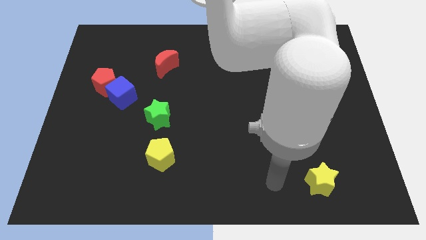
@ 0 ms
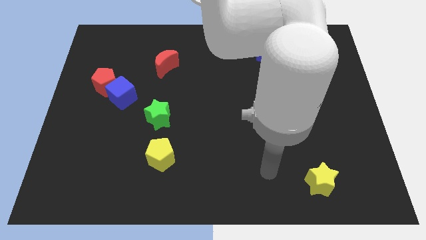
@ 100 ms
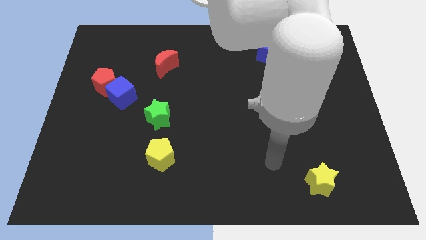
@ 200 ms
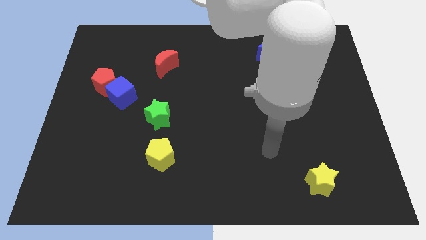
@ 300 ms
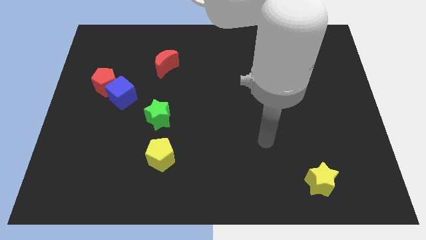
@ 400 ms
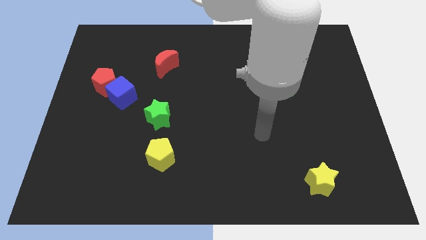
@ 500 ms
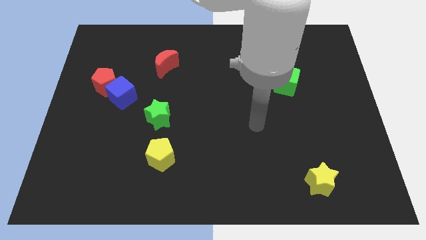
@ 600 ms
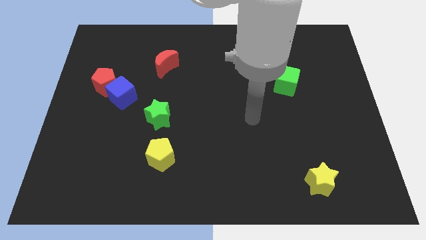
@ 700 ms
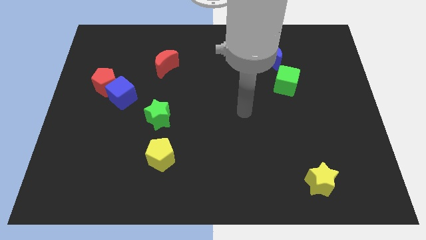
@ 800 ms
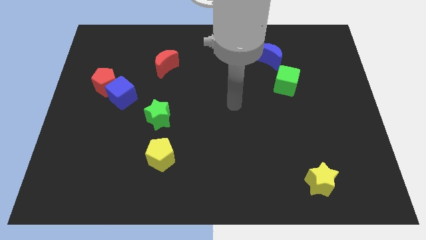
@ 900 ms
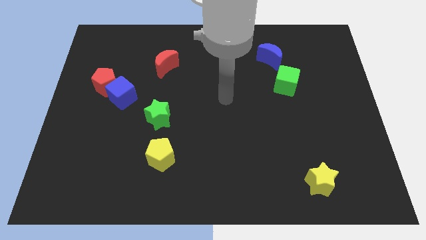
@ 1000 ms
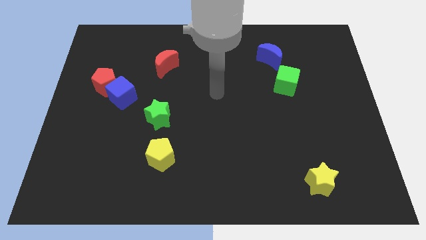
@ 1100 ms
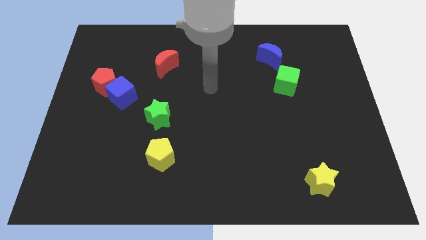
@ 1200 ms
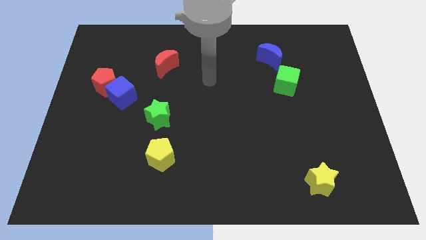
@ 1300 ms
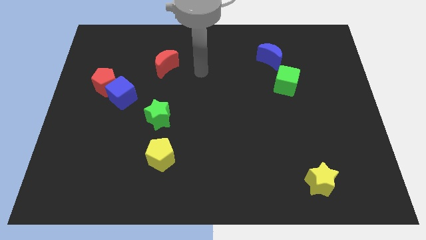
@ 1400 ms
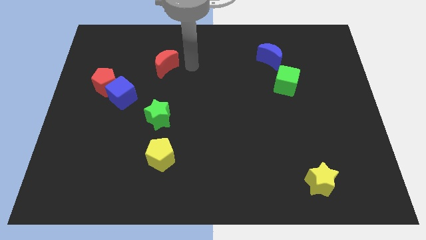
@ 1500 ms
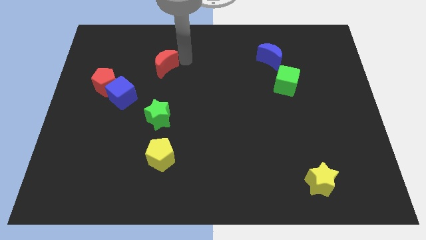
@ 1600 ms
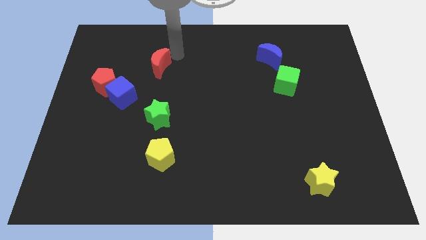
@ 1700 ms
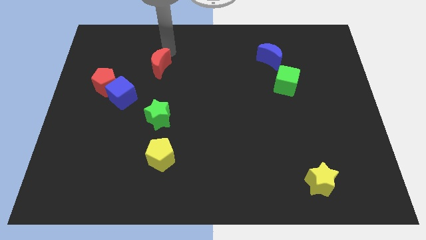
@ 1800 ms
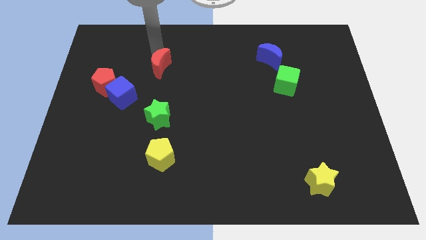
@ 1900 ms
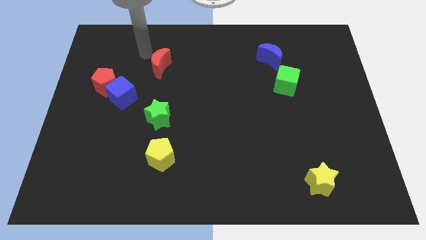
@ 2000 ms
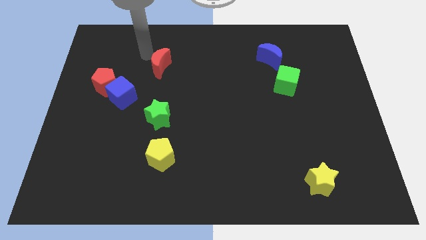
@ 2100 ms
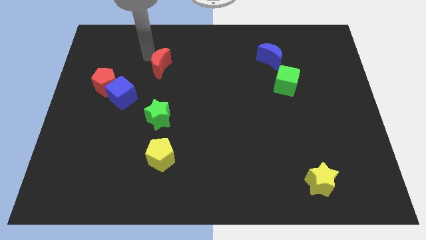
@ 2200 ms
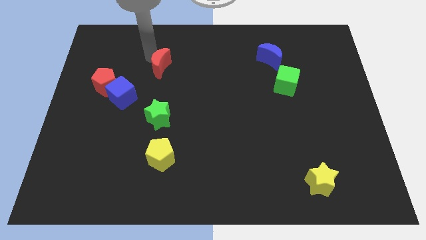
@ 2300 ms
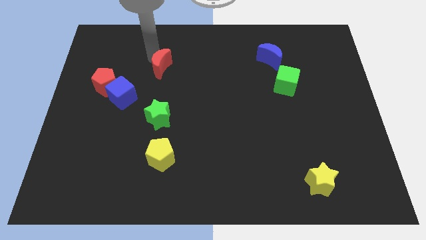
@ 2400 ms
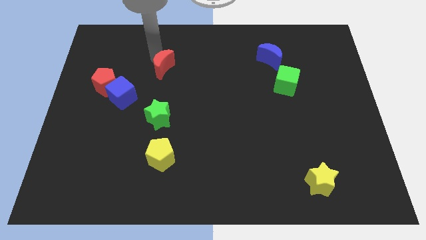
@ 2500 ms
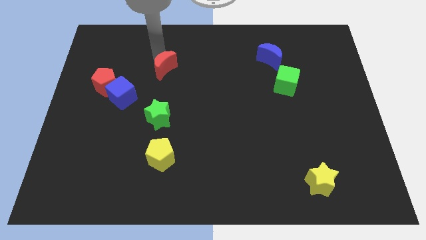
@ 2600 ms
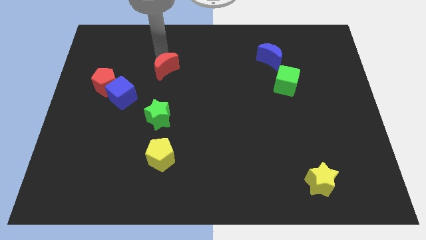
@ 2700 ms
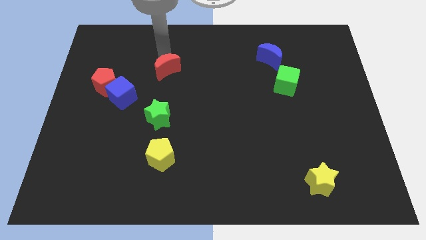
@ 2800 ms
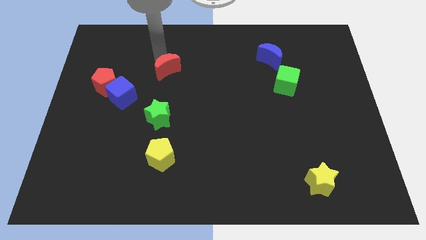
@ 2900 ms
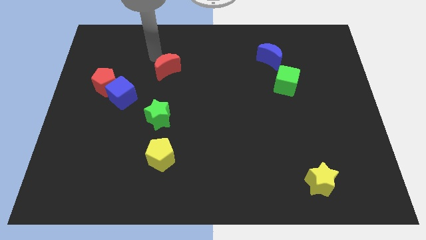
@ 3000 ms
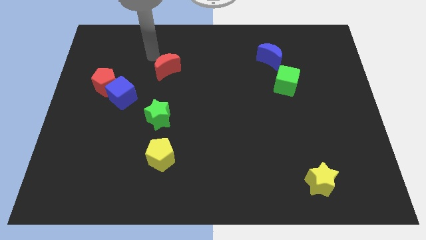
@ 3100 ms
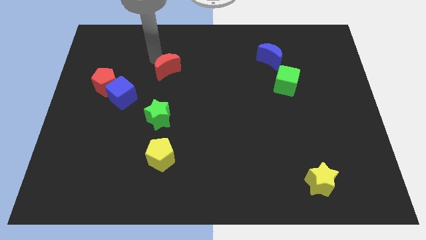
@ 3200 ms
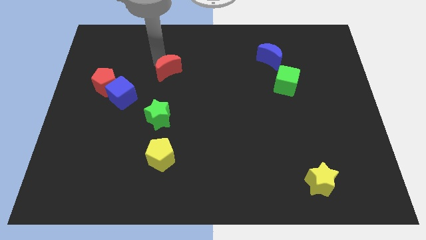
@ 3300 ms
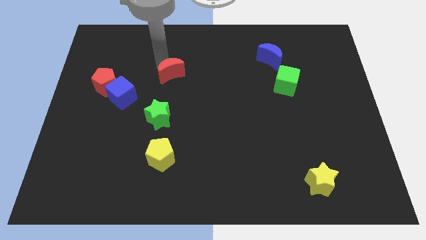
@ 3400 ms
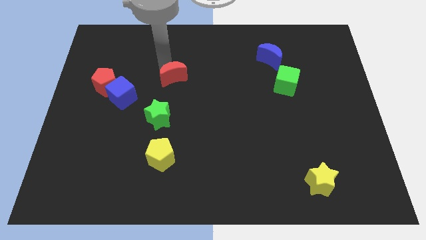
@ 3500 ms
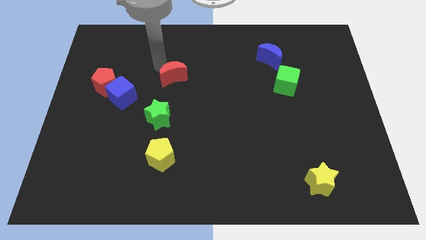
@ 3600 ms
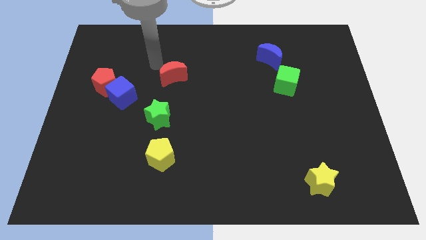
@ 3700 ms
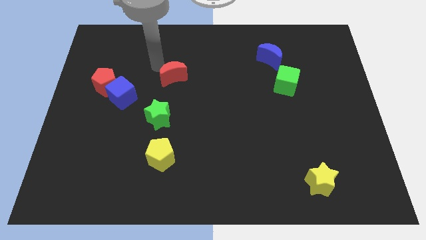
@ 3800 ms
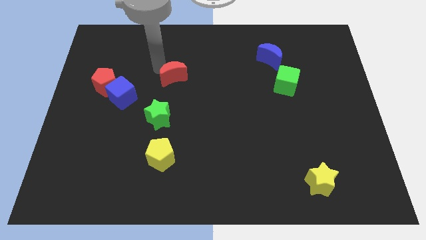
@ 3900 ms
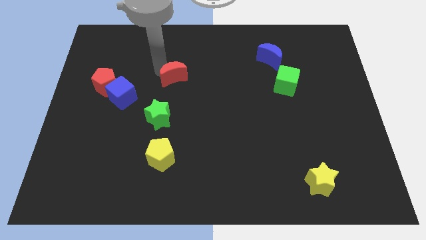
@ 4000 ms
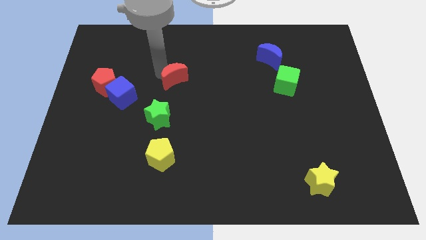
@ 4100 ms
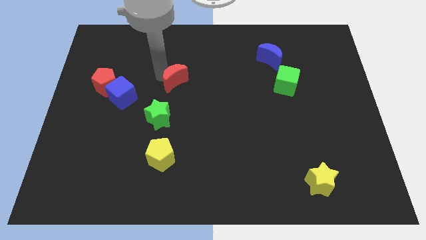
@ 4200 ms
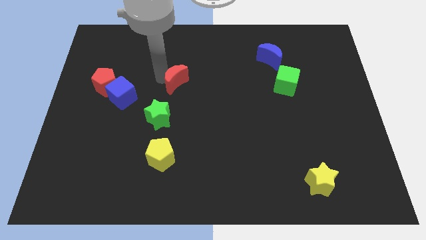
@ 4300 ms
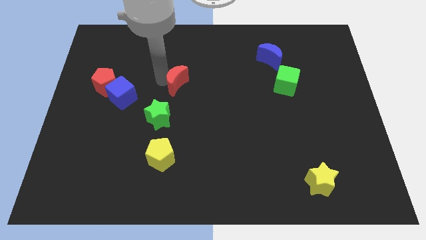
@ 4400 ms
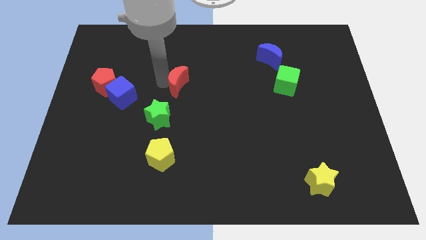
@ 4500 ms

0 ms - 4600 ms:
push the red moon a little bit down and right

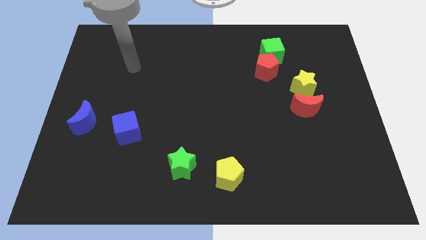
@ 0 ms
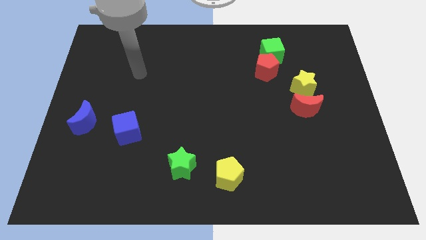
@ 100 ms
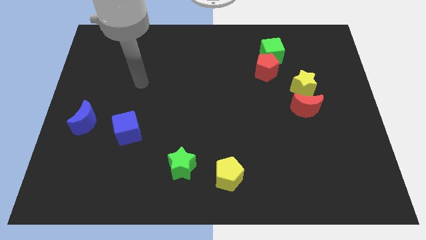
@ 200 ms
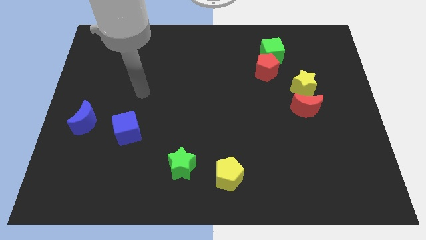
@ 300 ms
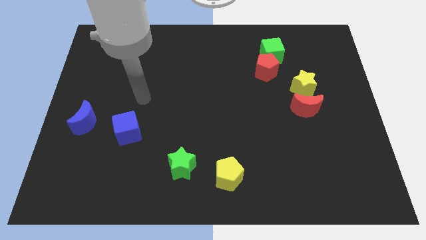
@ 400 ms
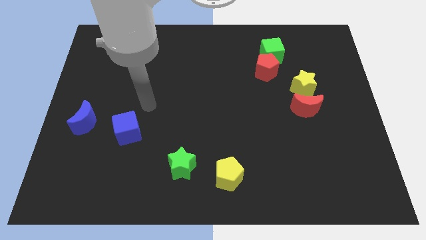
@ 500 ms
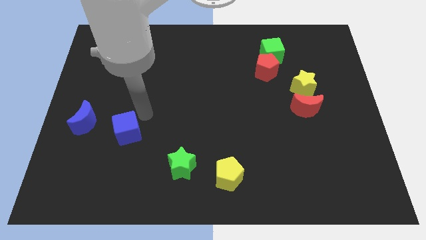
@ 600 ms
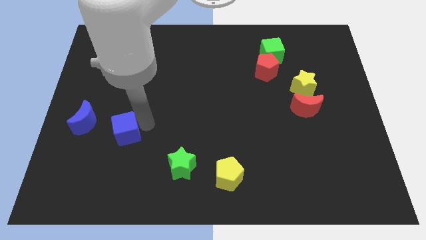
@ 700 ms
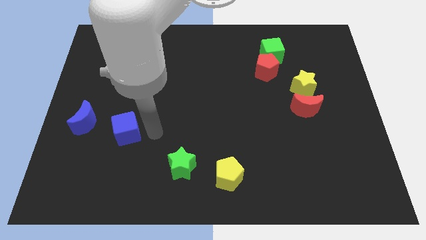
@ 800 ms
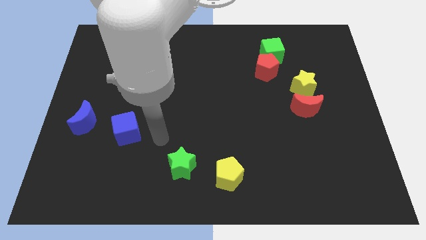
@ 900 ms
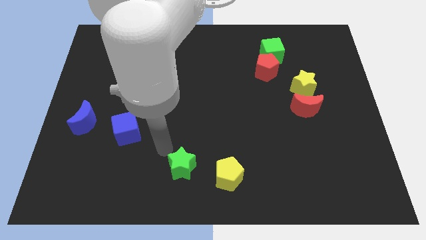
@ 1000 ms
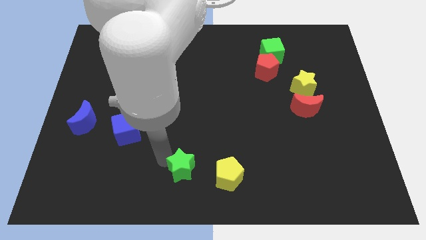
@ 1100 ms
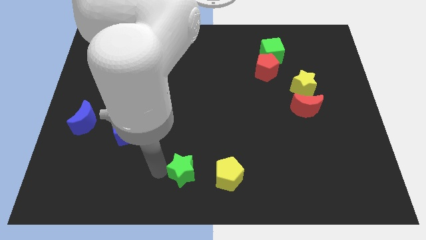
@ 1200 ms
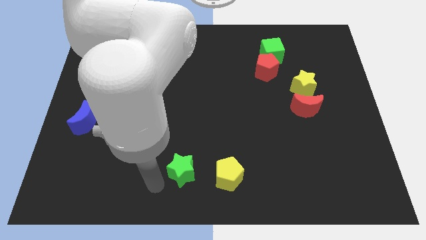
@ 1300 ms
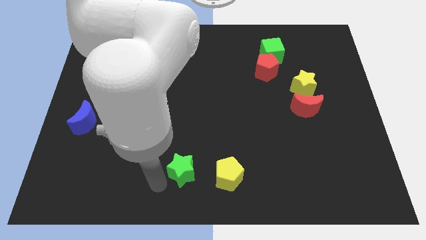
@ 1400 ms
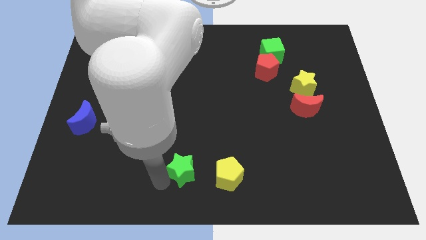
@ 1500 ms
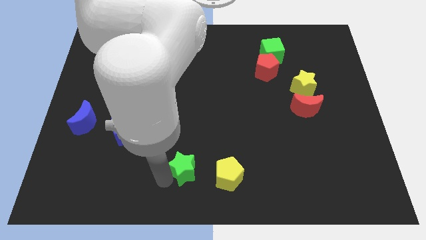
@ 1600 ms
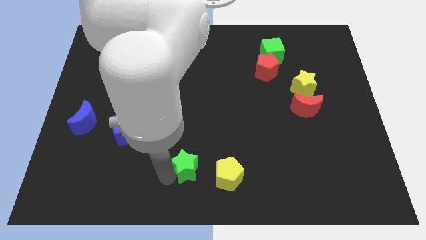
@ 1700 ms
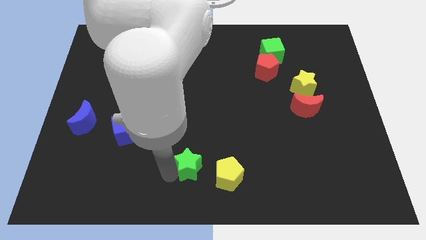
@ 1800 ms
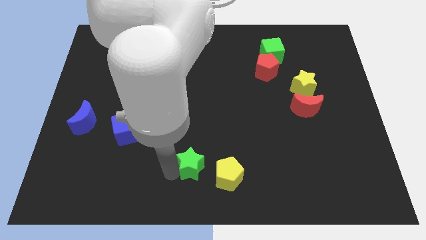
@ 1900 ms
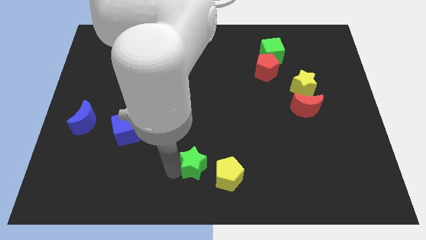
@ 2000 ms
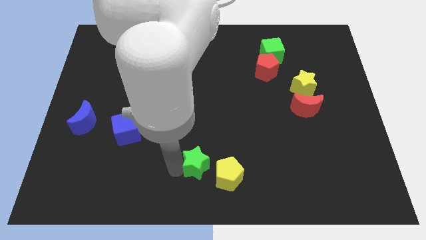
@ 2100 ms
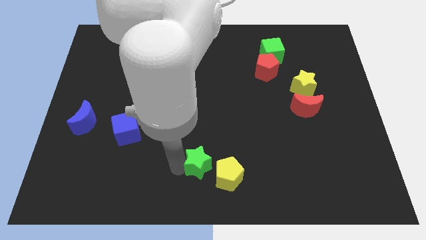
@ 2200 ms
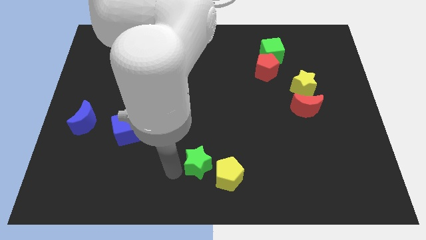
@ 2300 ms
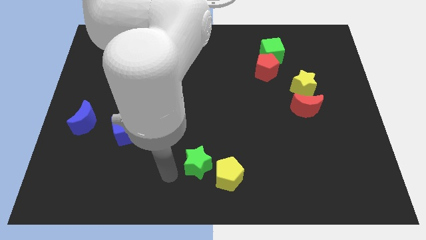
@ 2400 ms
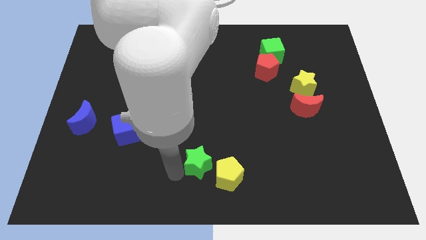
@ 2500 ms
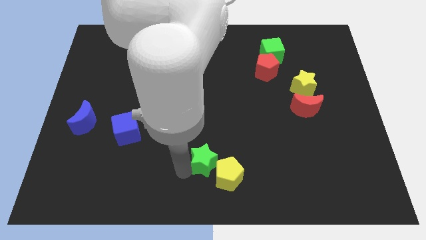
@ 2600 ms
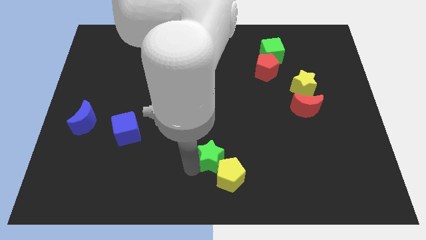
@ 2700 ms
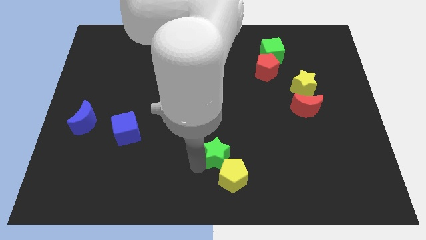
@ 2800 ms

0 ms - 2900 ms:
push the green star somewhat to the right

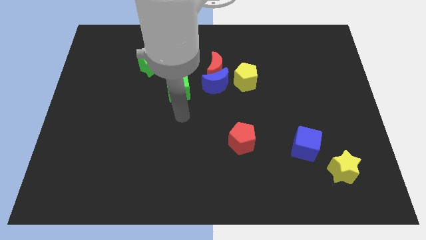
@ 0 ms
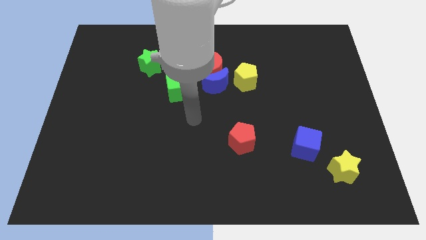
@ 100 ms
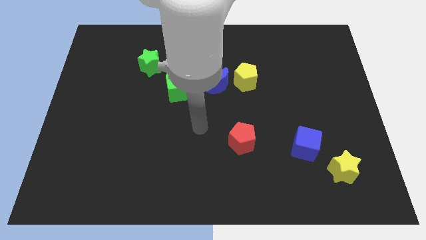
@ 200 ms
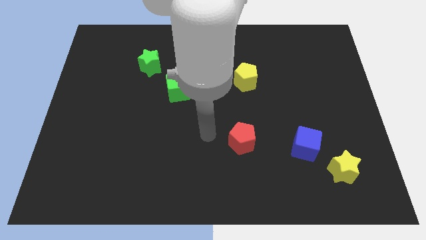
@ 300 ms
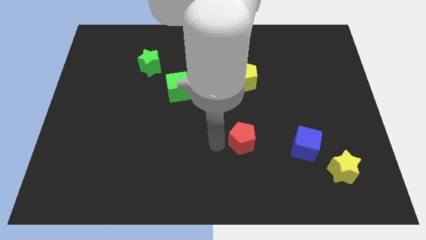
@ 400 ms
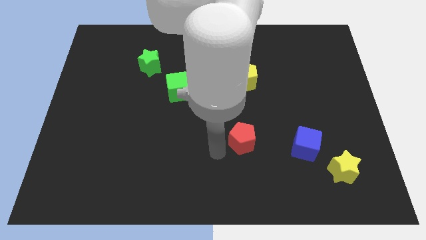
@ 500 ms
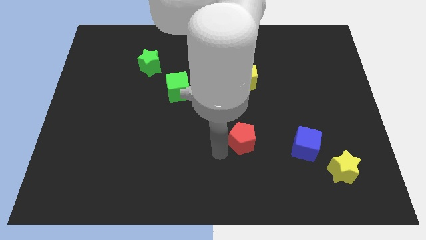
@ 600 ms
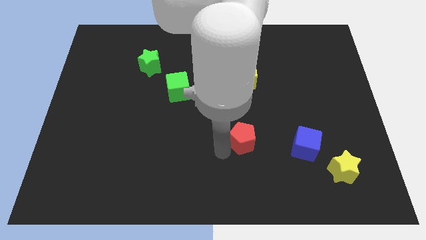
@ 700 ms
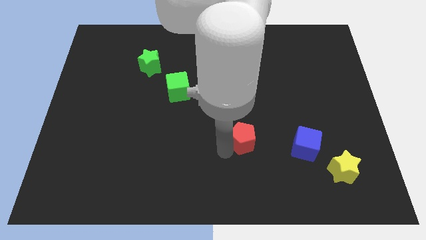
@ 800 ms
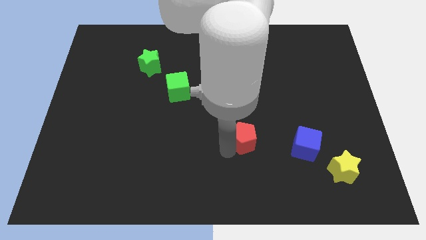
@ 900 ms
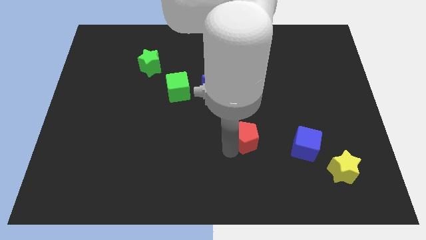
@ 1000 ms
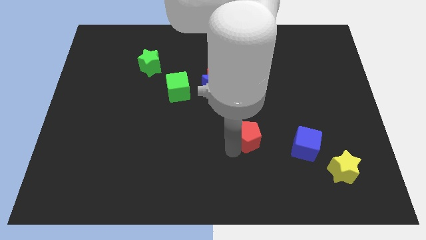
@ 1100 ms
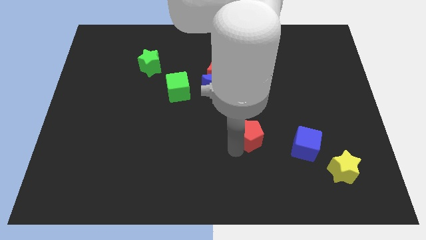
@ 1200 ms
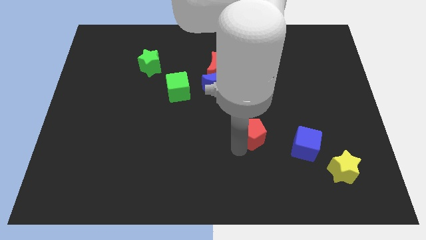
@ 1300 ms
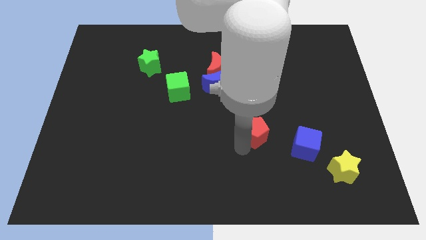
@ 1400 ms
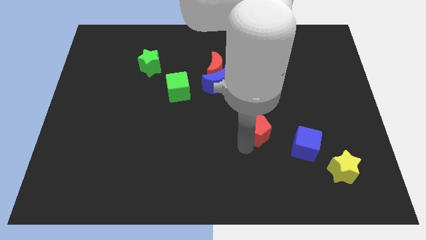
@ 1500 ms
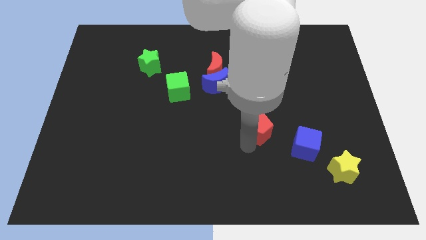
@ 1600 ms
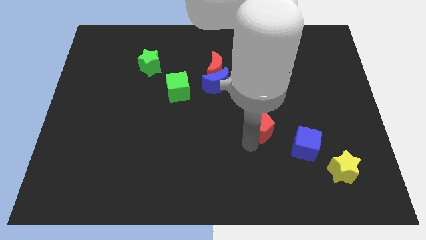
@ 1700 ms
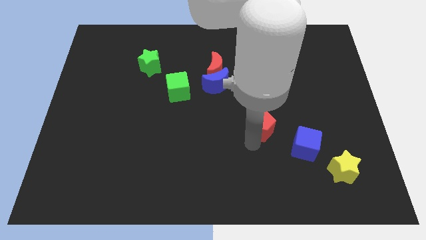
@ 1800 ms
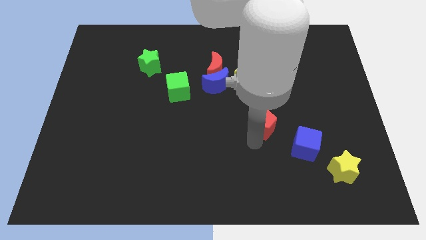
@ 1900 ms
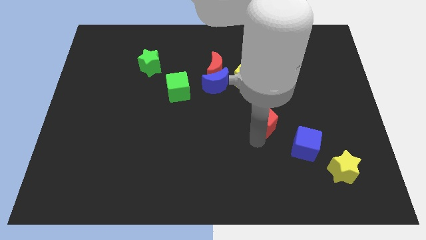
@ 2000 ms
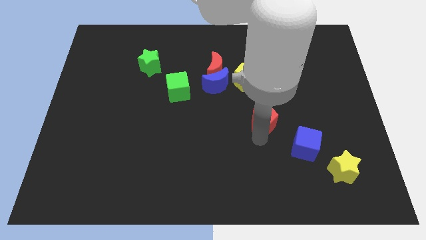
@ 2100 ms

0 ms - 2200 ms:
push the red pentagon upwards and to the right somewhat
